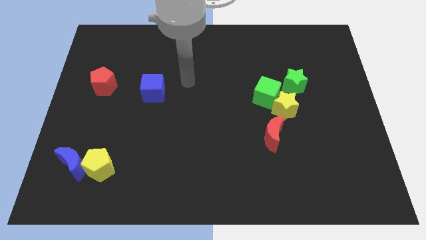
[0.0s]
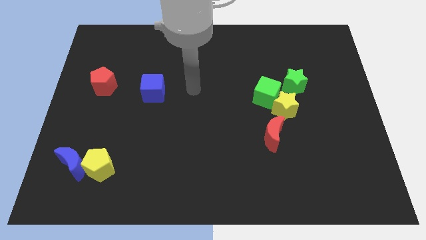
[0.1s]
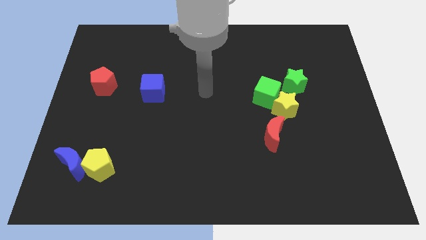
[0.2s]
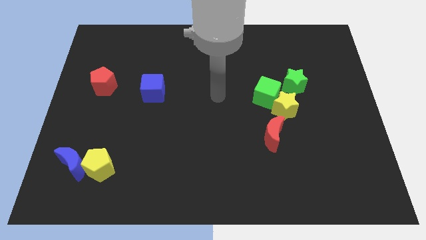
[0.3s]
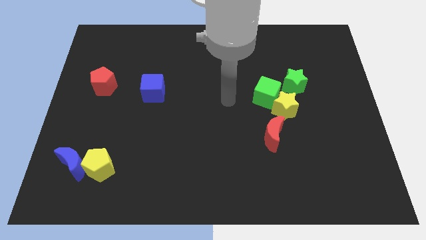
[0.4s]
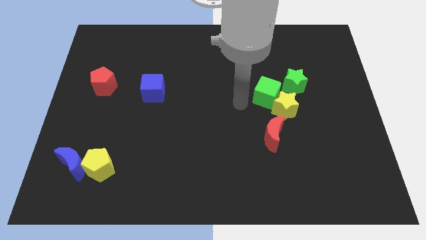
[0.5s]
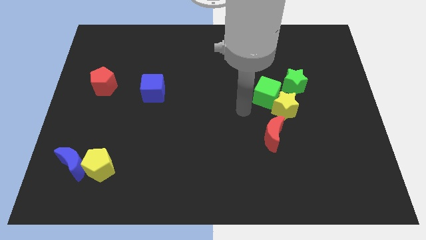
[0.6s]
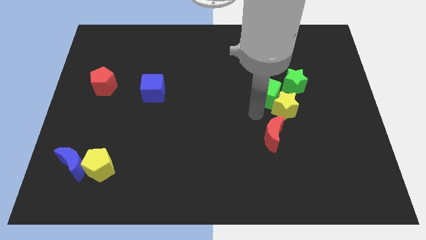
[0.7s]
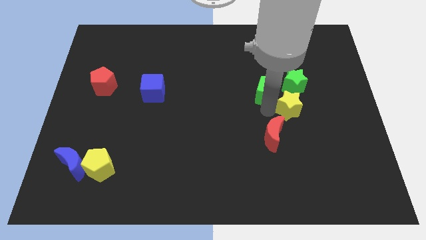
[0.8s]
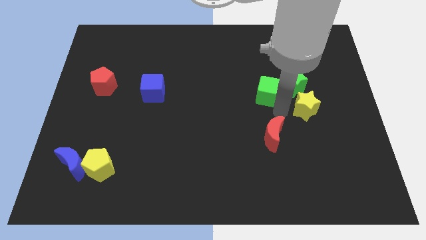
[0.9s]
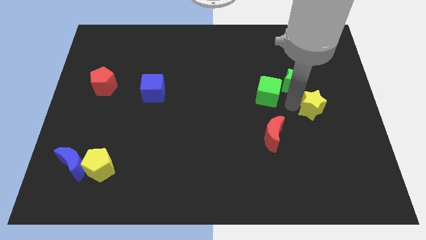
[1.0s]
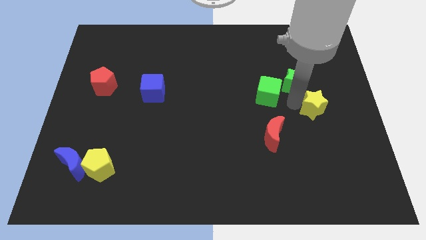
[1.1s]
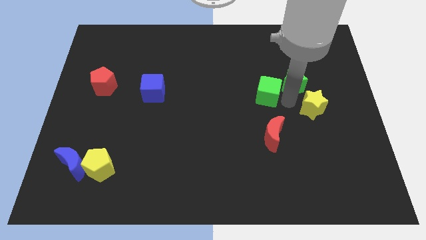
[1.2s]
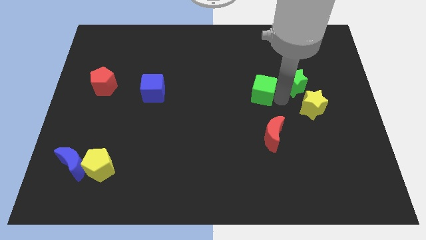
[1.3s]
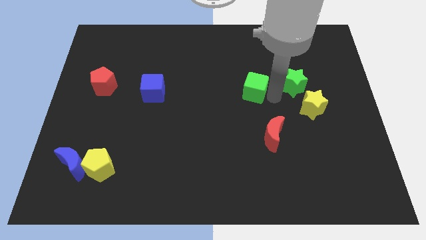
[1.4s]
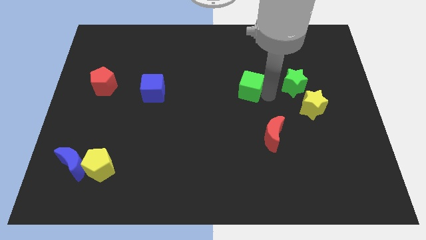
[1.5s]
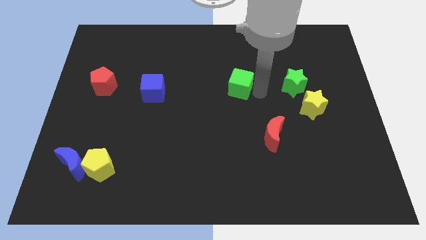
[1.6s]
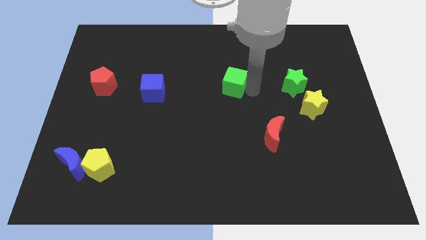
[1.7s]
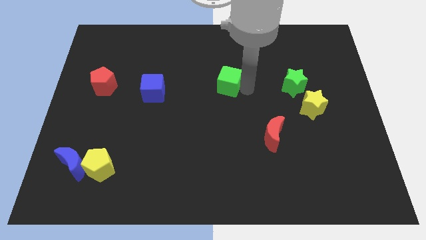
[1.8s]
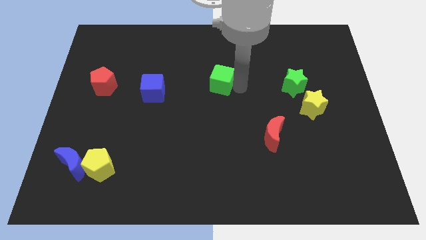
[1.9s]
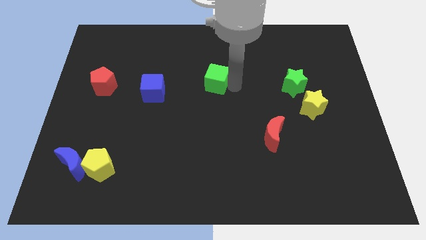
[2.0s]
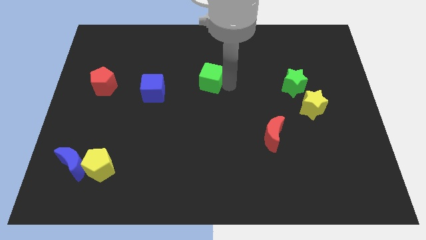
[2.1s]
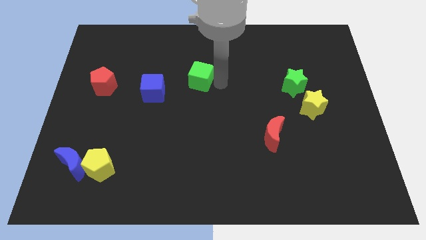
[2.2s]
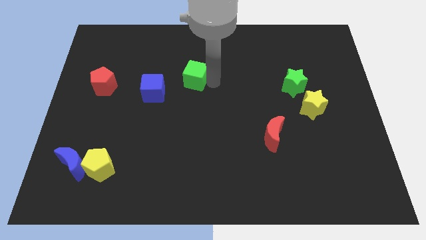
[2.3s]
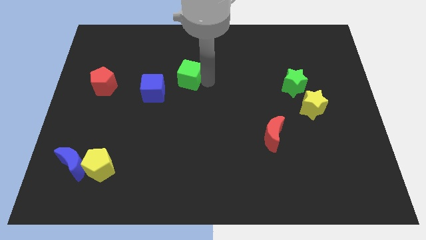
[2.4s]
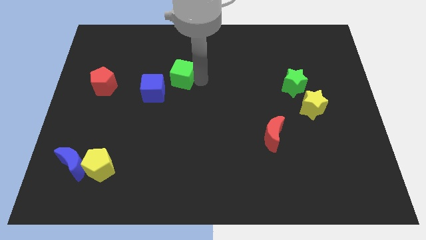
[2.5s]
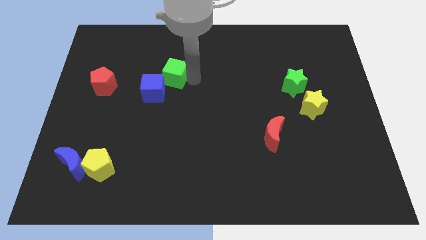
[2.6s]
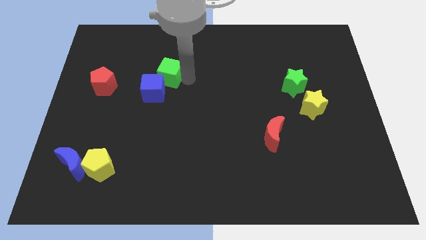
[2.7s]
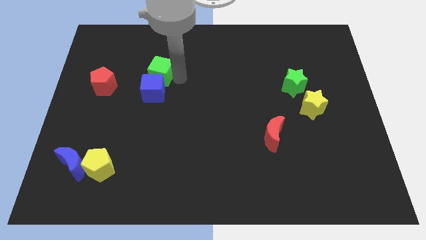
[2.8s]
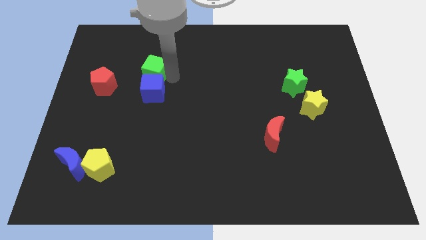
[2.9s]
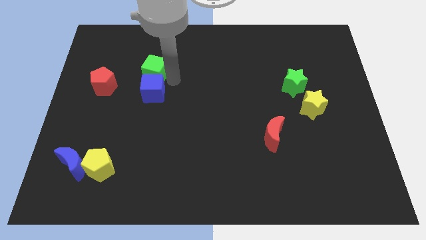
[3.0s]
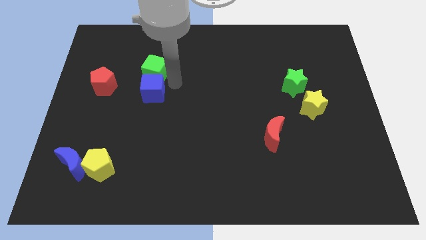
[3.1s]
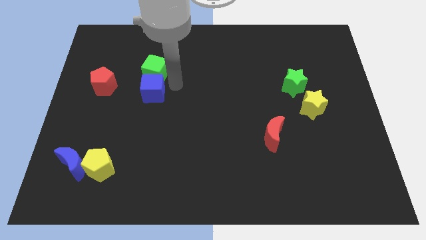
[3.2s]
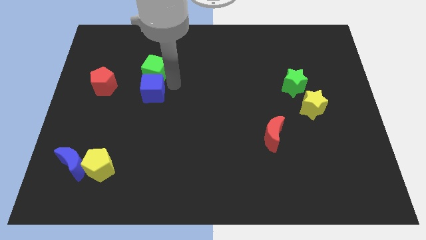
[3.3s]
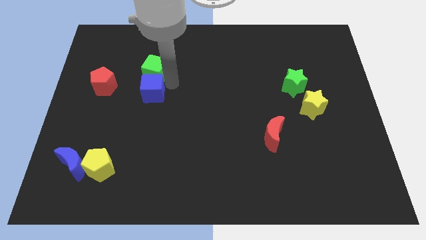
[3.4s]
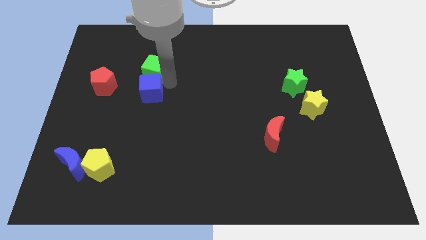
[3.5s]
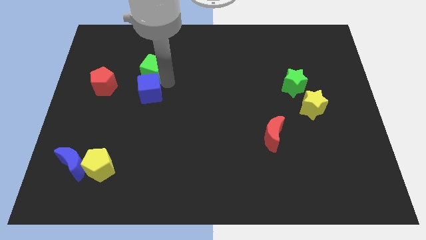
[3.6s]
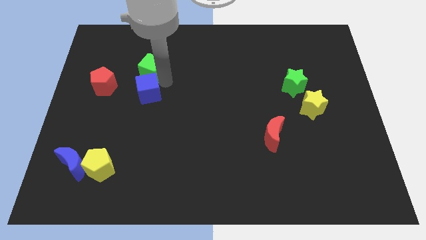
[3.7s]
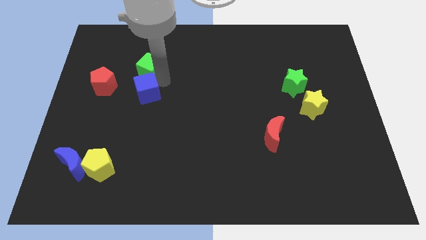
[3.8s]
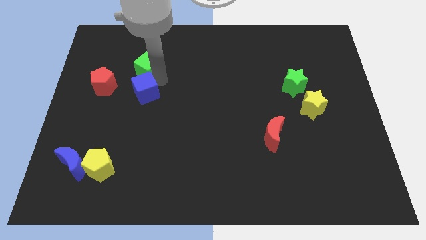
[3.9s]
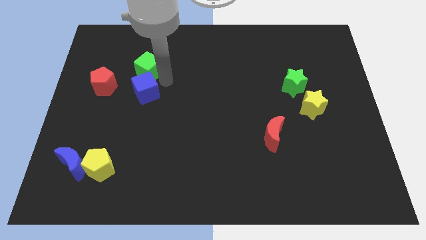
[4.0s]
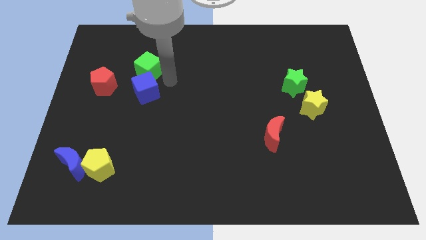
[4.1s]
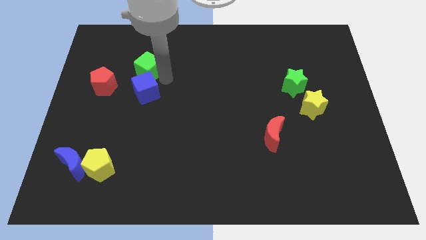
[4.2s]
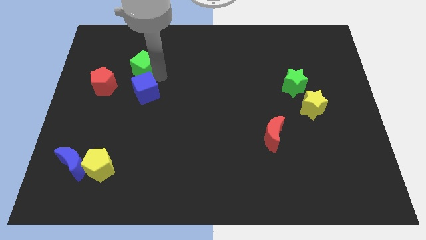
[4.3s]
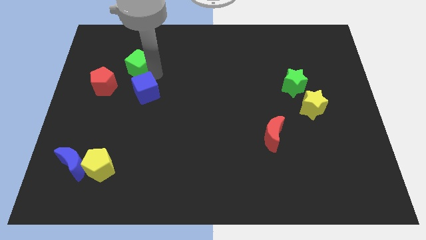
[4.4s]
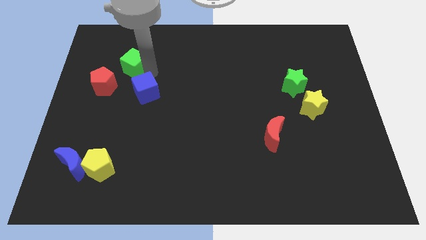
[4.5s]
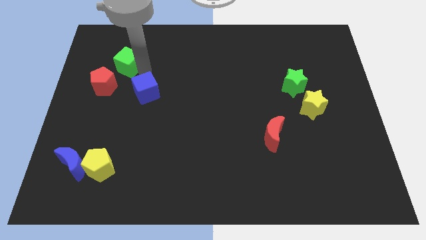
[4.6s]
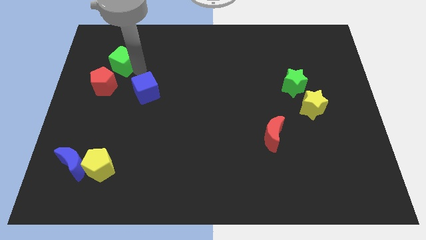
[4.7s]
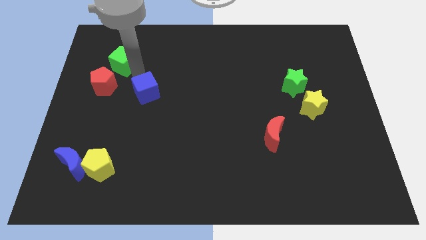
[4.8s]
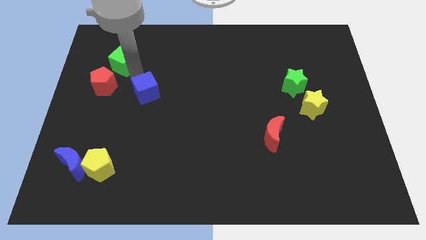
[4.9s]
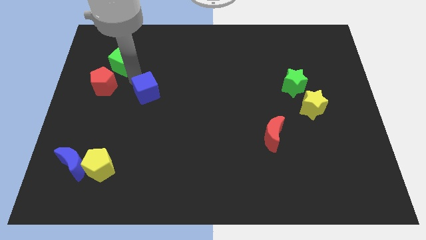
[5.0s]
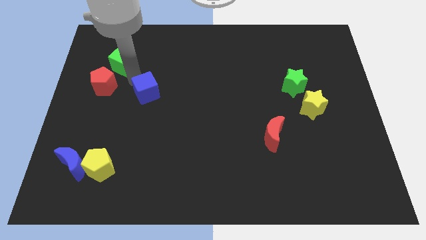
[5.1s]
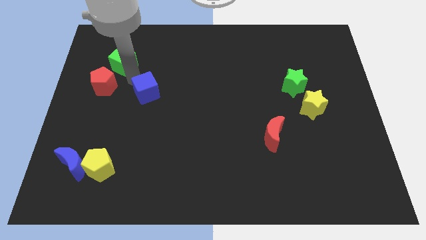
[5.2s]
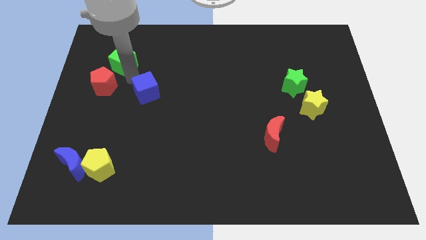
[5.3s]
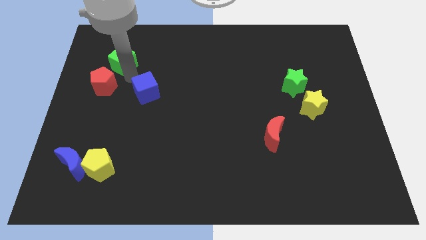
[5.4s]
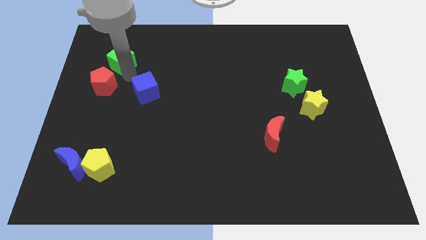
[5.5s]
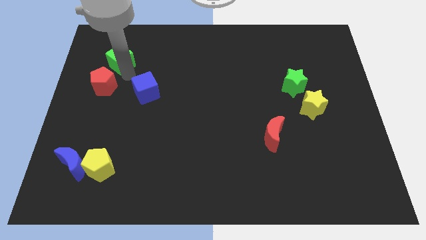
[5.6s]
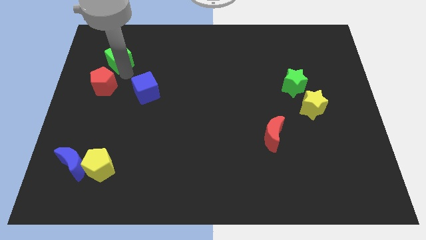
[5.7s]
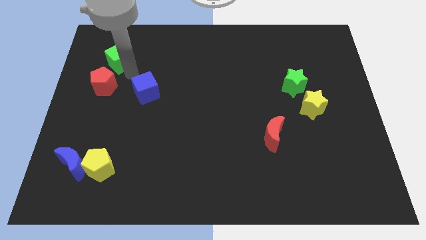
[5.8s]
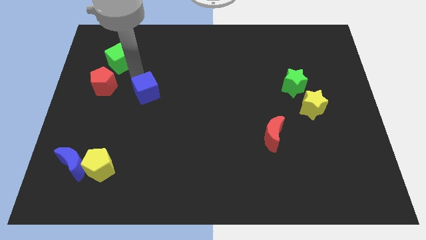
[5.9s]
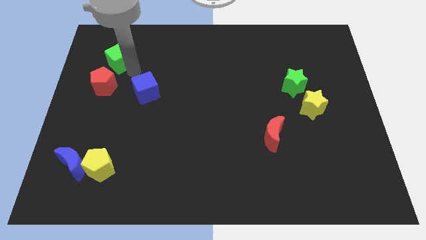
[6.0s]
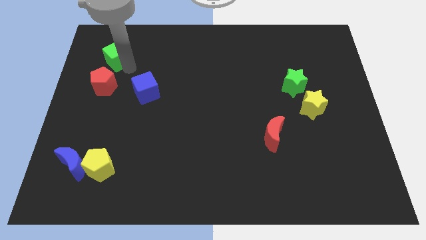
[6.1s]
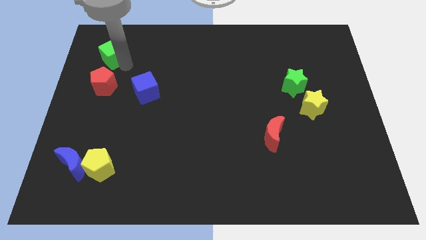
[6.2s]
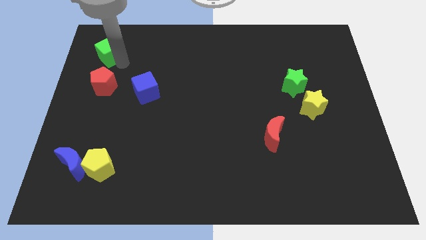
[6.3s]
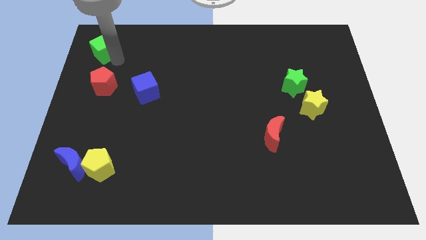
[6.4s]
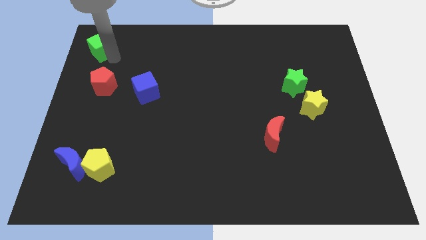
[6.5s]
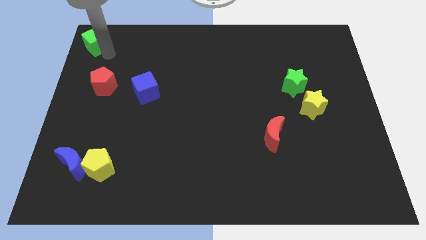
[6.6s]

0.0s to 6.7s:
put the green cube to the top left
